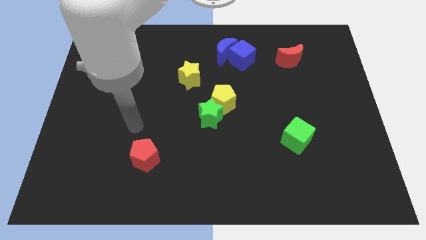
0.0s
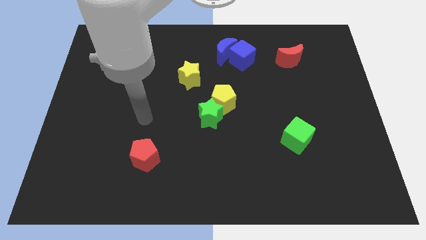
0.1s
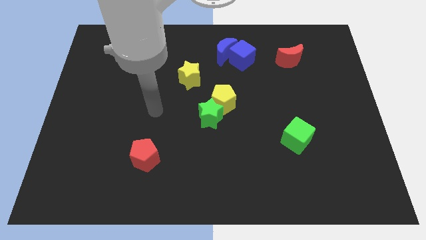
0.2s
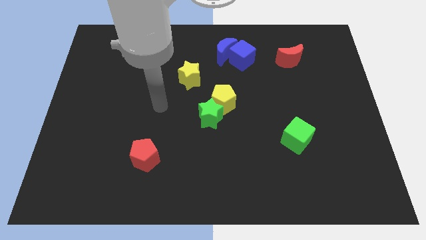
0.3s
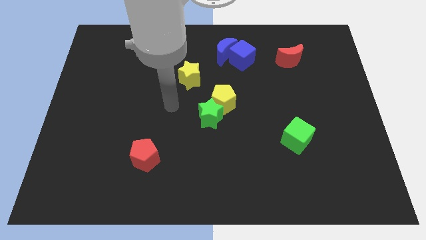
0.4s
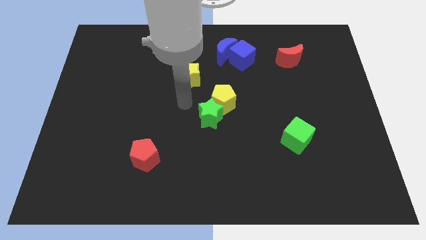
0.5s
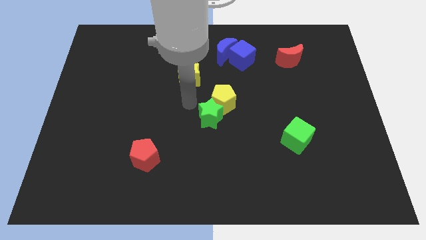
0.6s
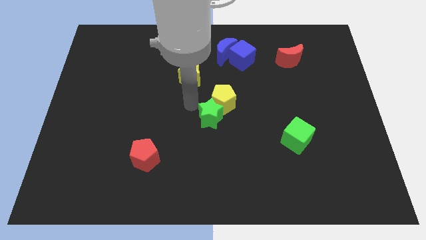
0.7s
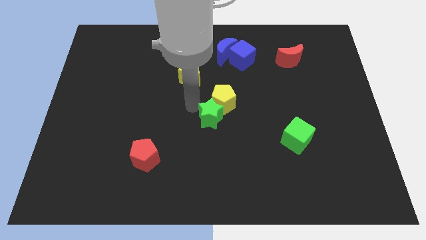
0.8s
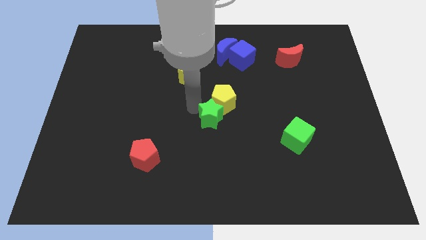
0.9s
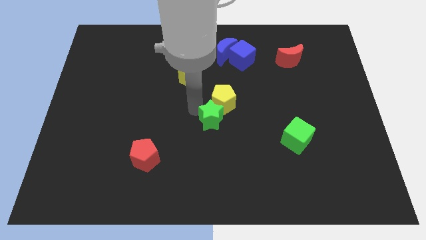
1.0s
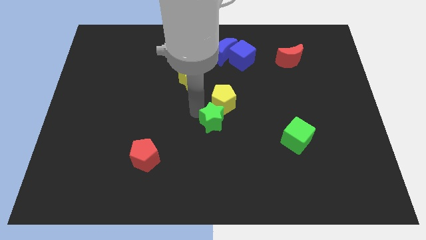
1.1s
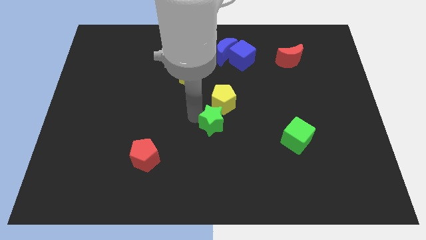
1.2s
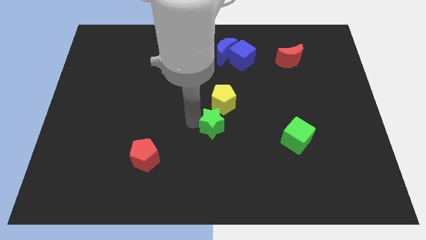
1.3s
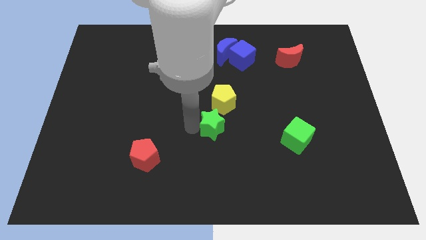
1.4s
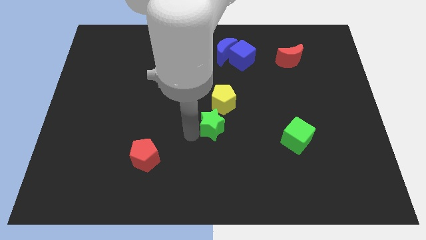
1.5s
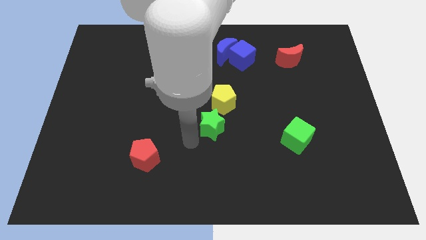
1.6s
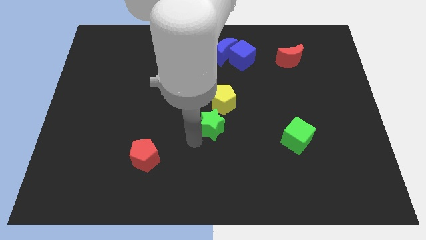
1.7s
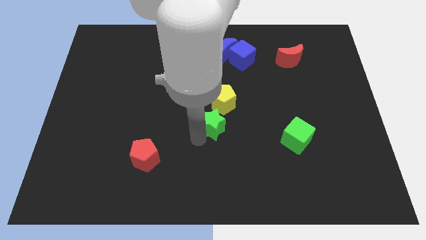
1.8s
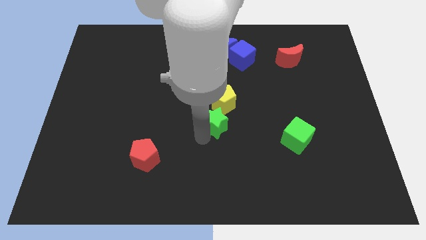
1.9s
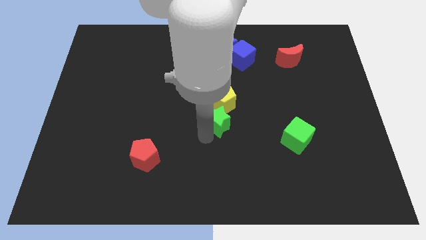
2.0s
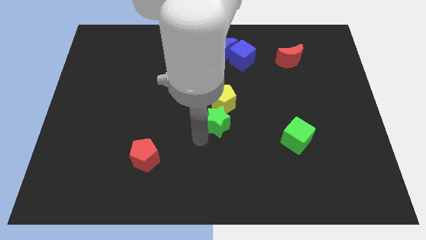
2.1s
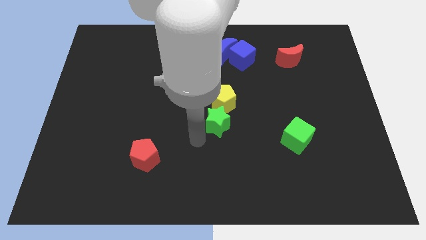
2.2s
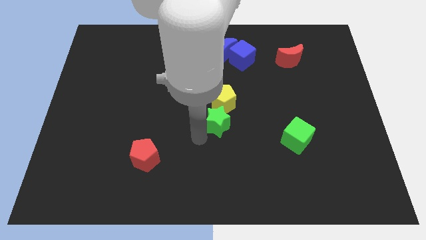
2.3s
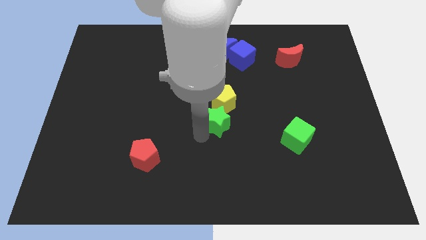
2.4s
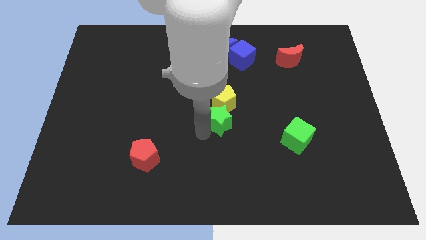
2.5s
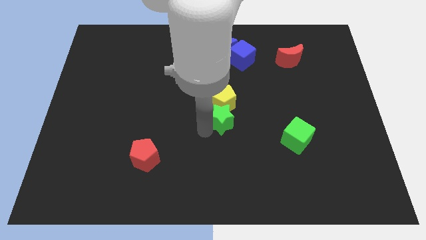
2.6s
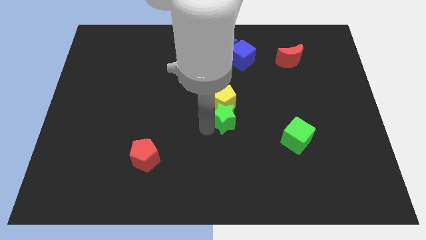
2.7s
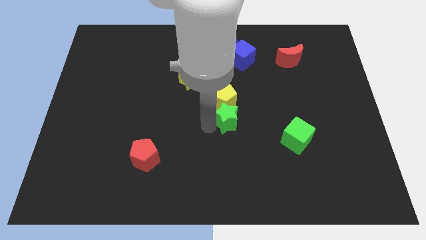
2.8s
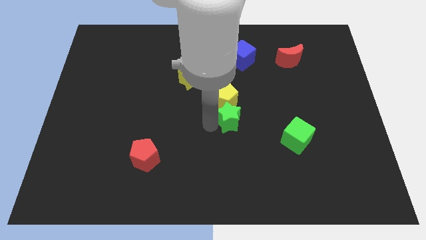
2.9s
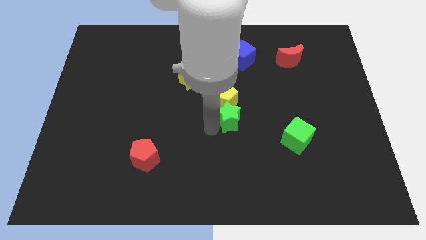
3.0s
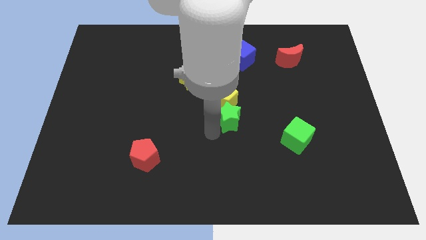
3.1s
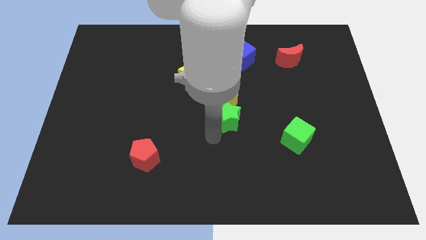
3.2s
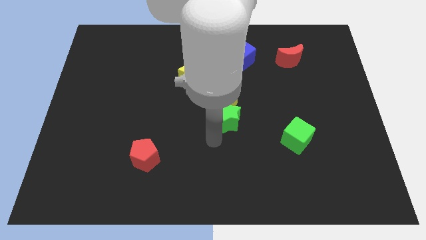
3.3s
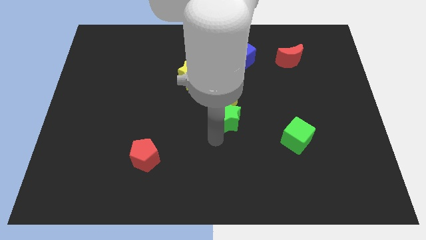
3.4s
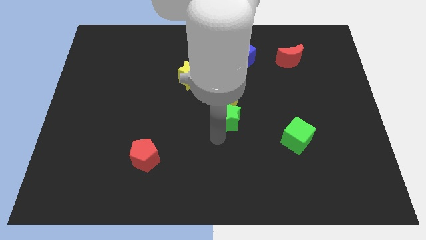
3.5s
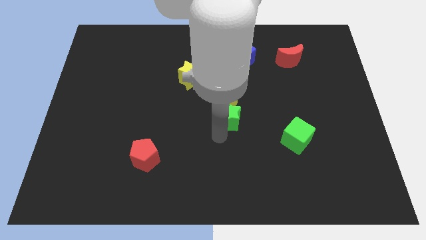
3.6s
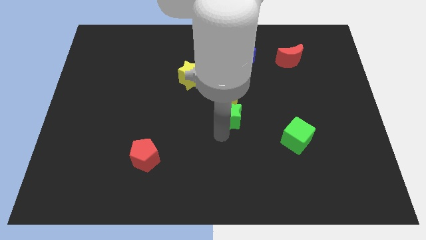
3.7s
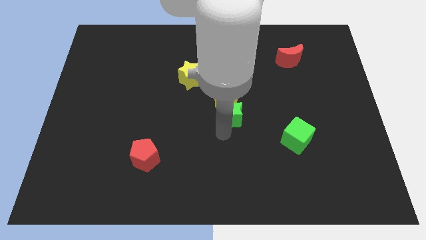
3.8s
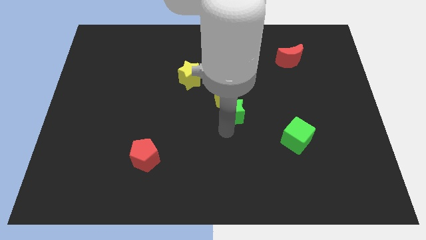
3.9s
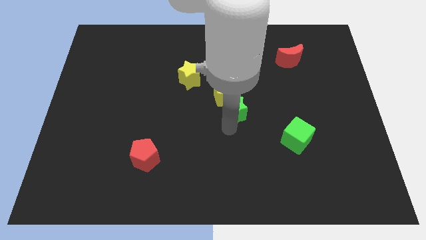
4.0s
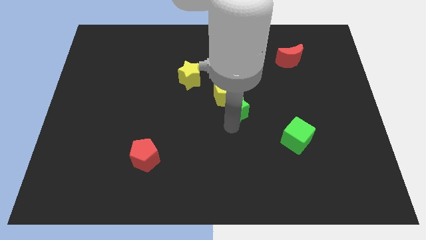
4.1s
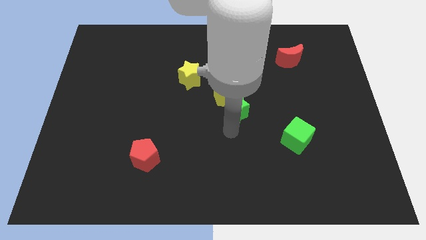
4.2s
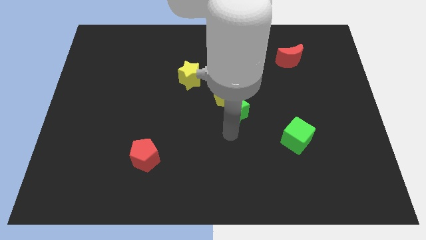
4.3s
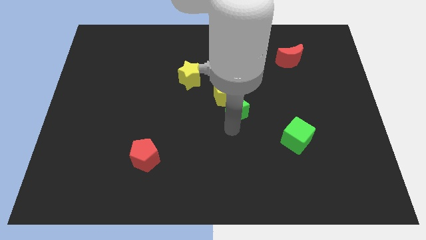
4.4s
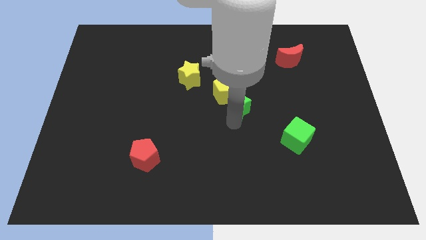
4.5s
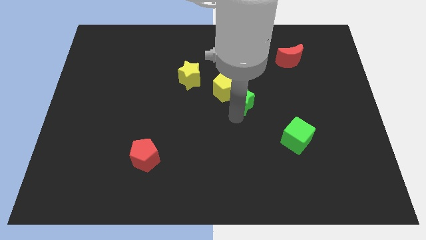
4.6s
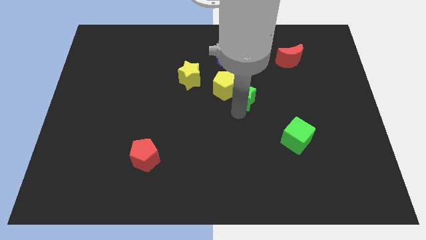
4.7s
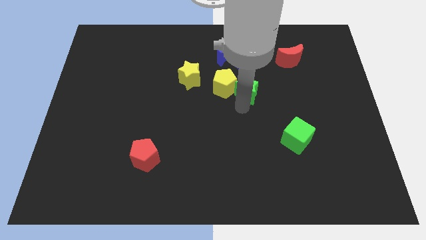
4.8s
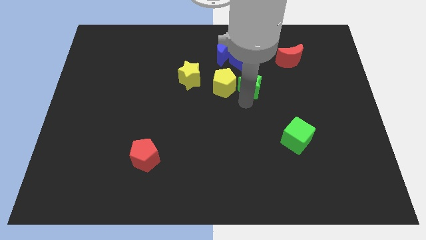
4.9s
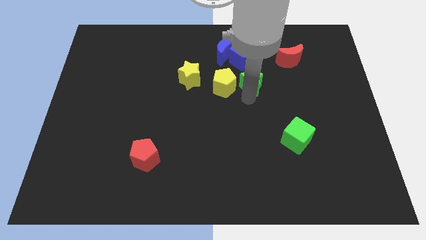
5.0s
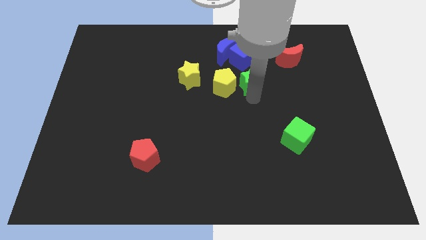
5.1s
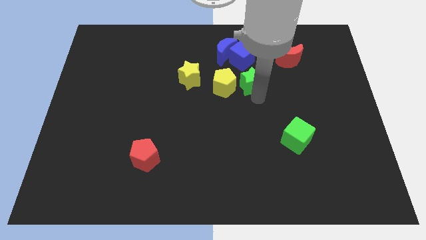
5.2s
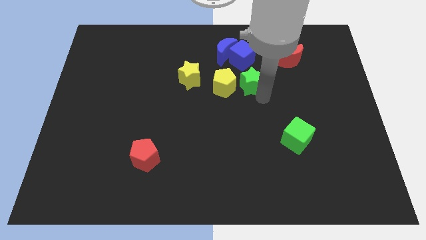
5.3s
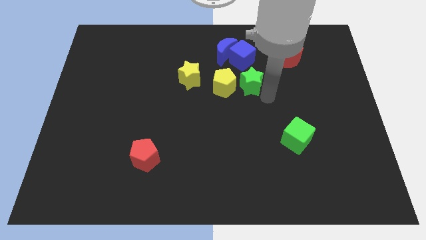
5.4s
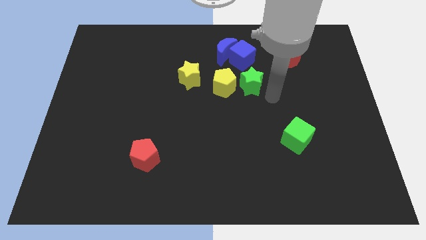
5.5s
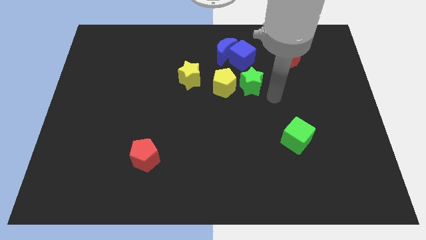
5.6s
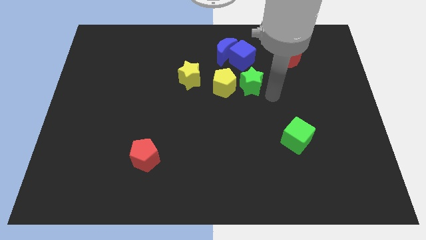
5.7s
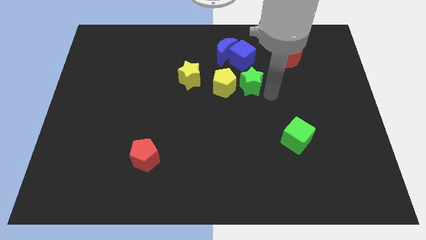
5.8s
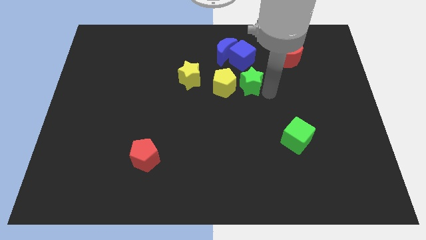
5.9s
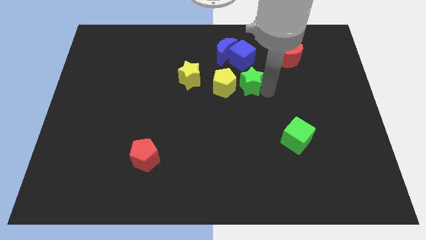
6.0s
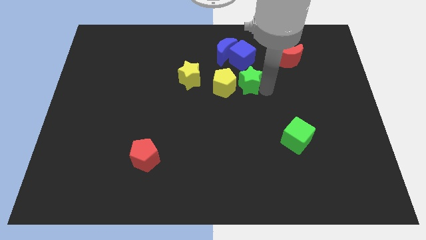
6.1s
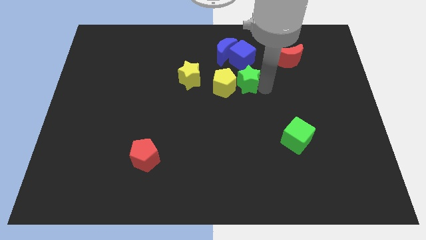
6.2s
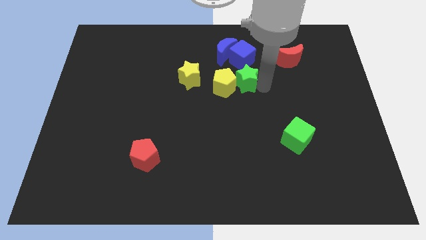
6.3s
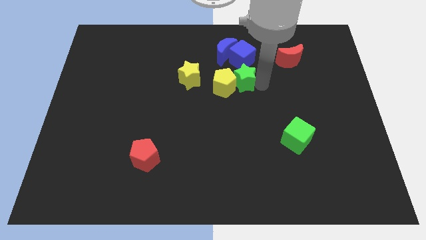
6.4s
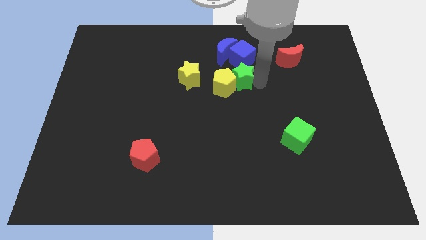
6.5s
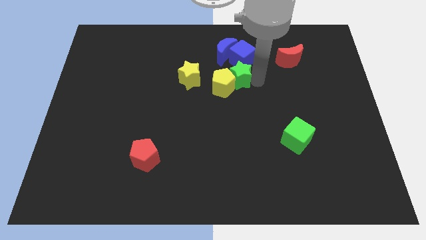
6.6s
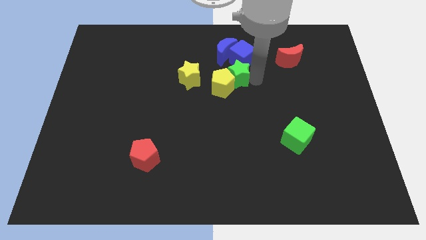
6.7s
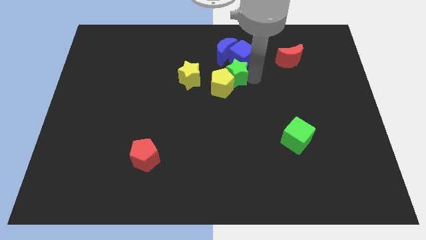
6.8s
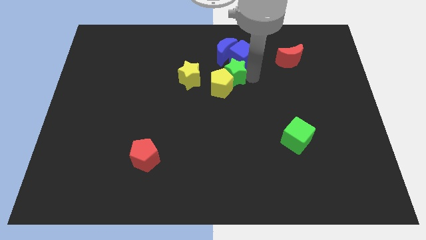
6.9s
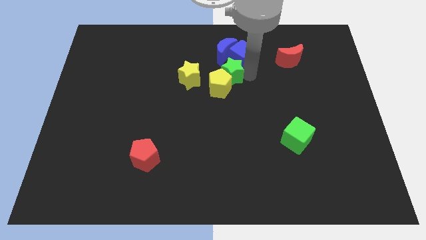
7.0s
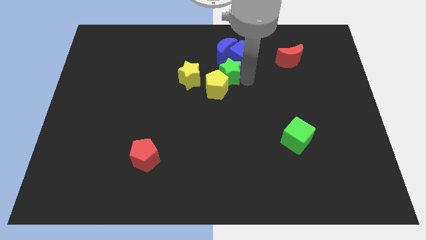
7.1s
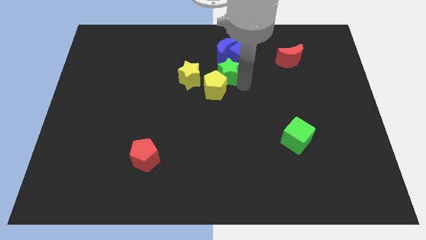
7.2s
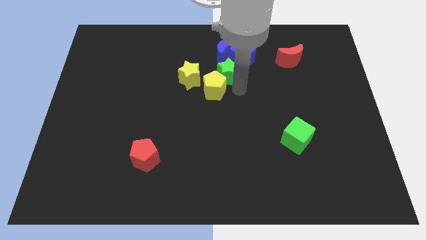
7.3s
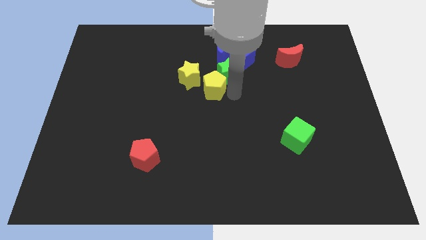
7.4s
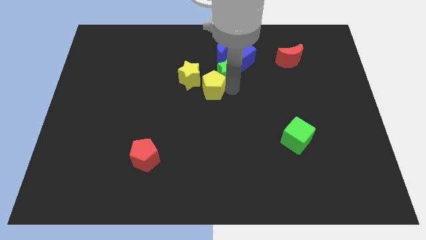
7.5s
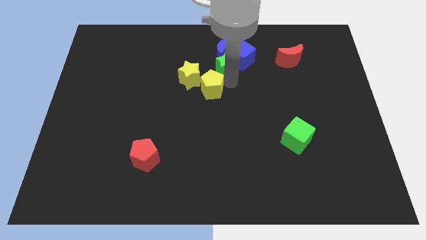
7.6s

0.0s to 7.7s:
move the green star towards the blue moon
